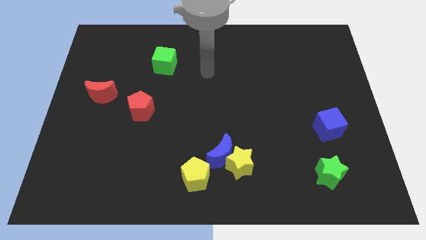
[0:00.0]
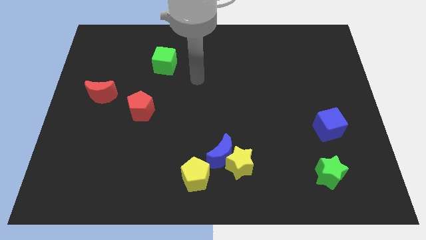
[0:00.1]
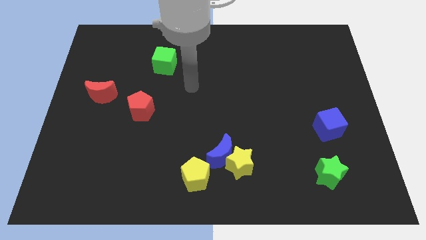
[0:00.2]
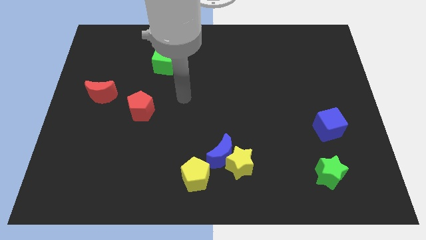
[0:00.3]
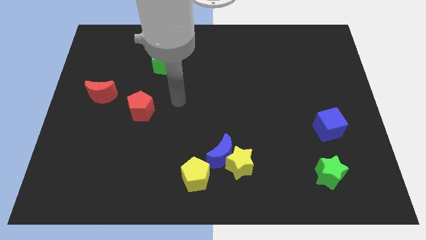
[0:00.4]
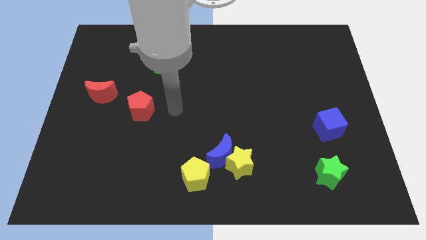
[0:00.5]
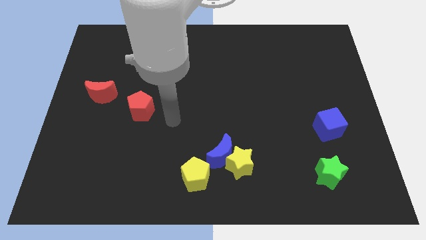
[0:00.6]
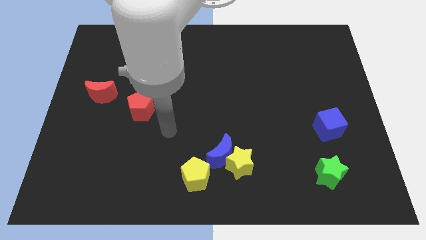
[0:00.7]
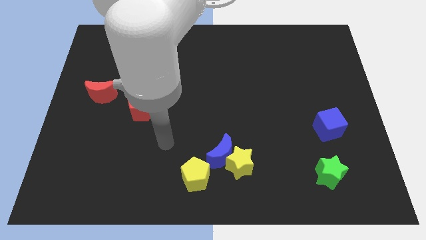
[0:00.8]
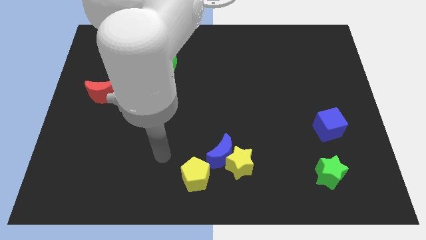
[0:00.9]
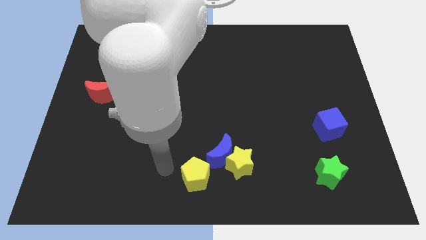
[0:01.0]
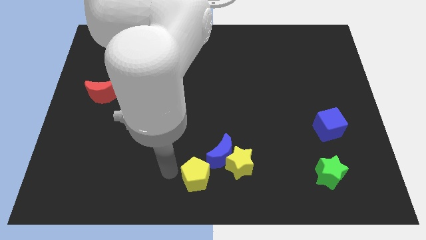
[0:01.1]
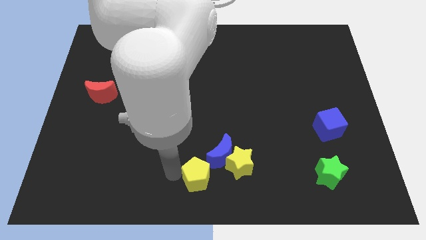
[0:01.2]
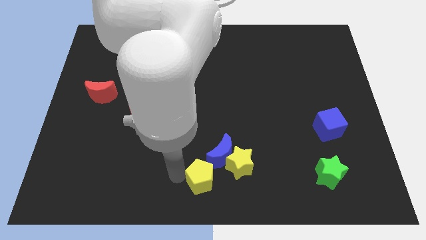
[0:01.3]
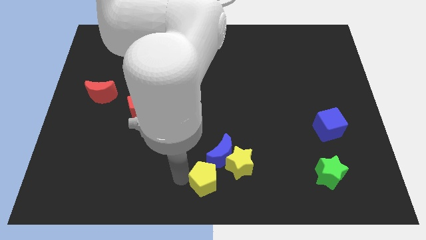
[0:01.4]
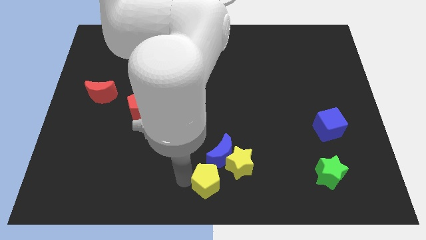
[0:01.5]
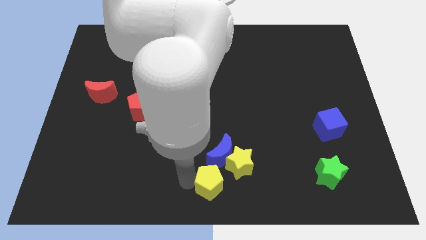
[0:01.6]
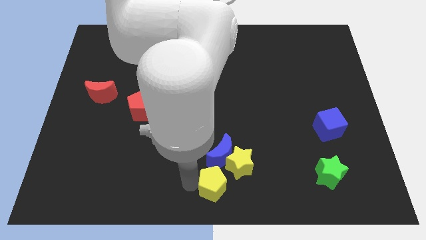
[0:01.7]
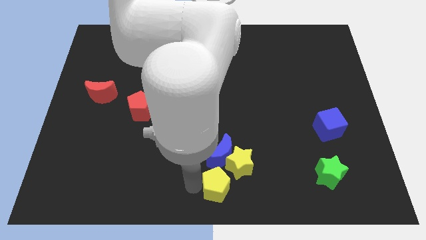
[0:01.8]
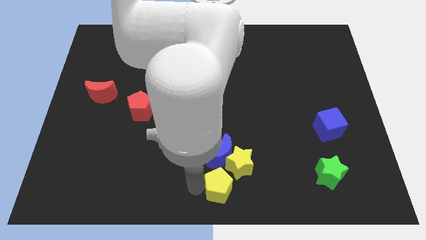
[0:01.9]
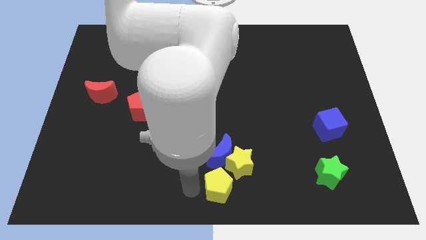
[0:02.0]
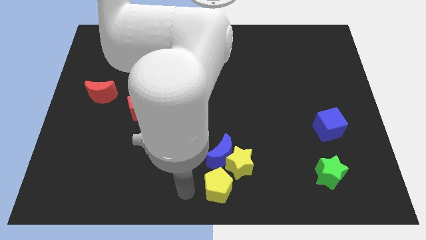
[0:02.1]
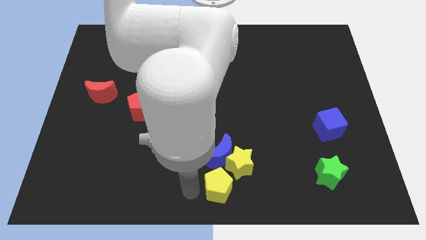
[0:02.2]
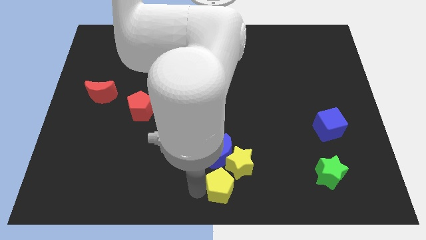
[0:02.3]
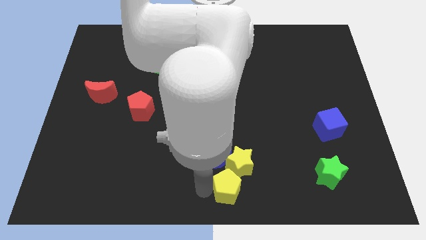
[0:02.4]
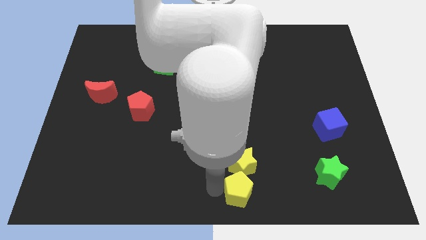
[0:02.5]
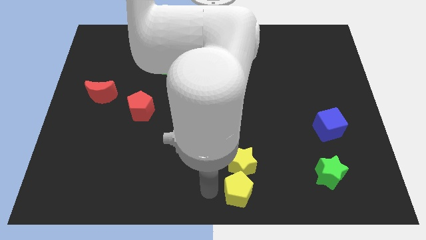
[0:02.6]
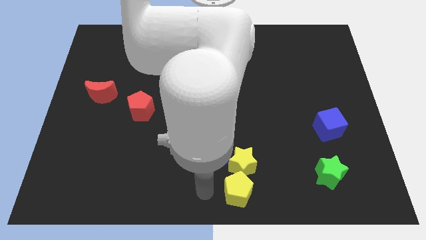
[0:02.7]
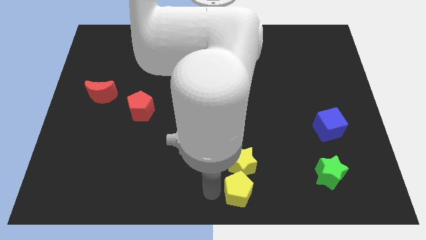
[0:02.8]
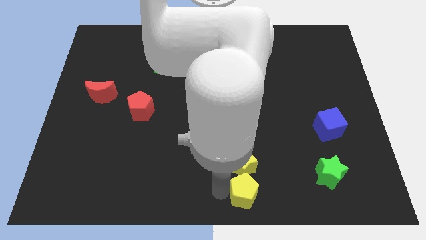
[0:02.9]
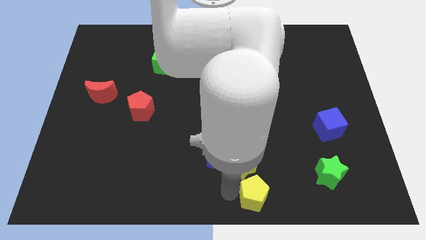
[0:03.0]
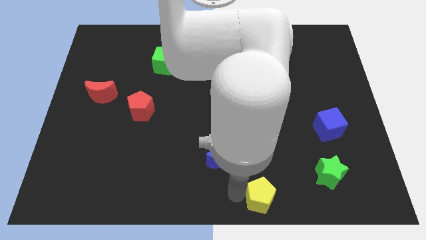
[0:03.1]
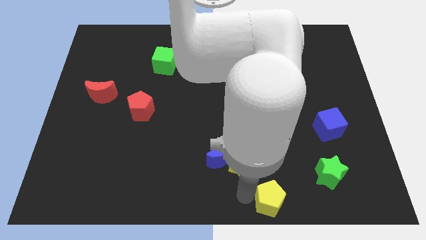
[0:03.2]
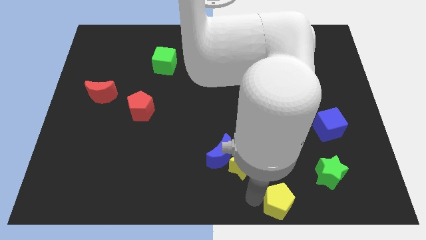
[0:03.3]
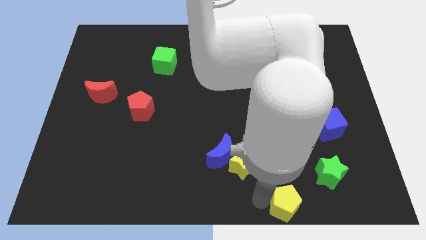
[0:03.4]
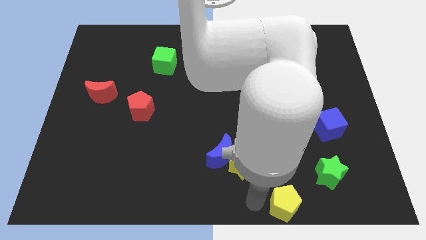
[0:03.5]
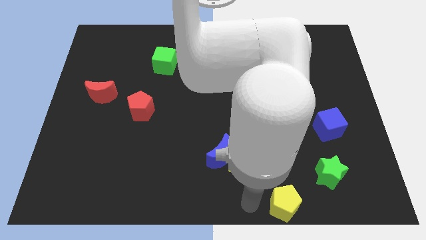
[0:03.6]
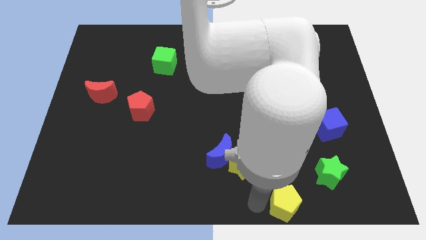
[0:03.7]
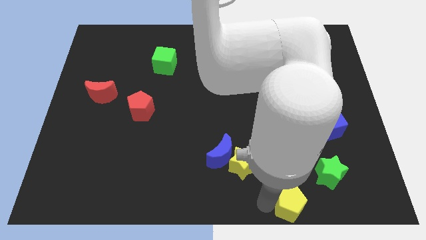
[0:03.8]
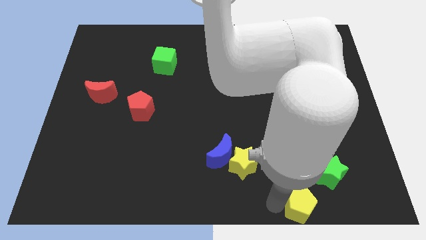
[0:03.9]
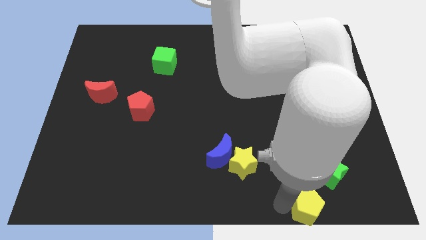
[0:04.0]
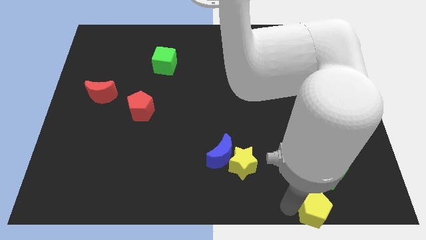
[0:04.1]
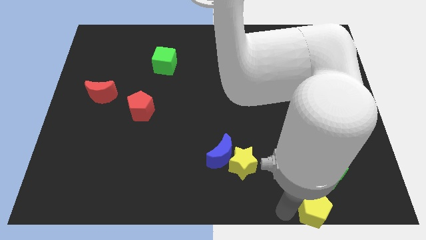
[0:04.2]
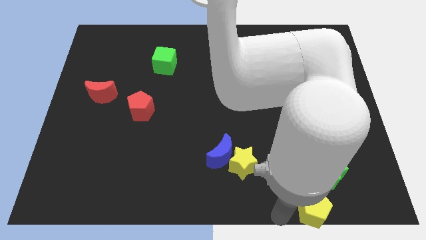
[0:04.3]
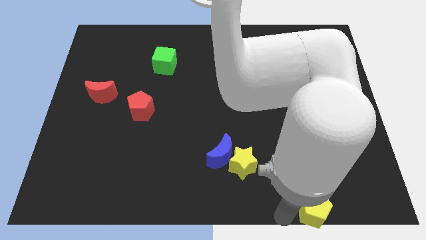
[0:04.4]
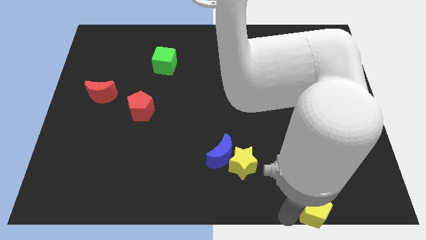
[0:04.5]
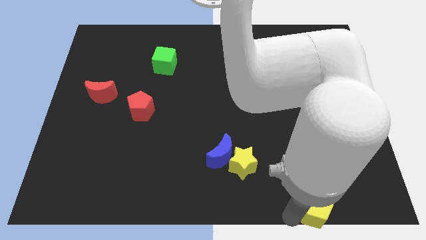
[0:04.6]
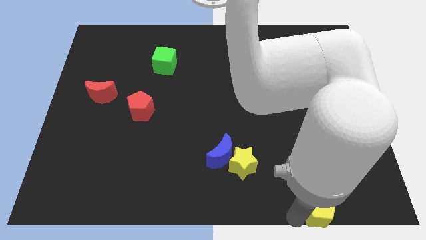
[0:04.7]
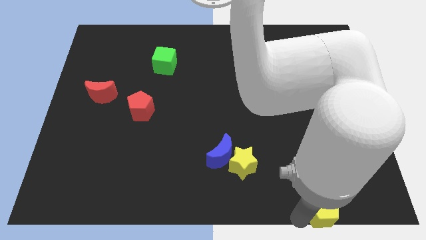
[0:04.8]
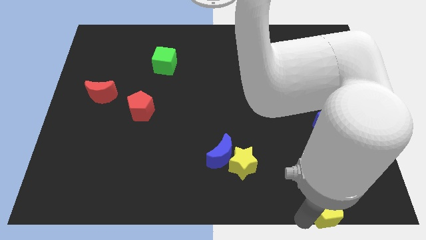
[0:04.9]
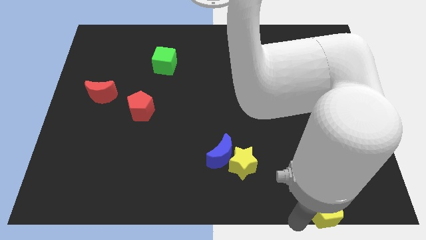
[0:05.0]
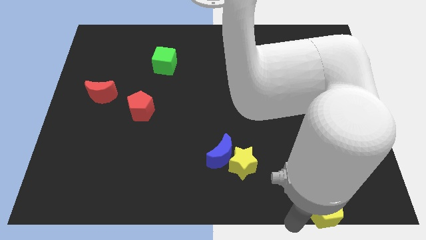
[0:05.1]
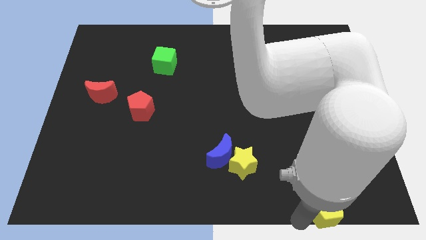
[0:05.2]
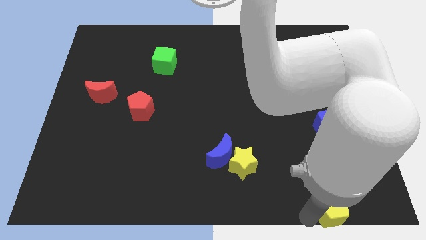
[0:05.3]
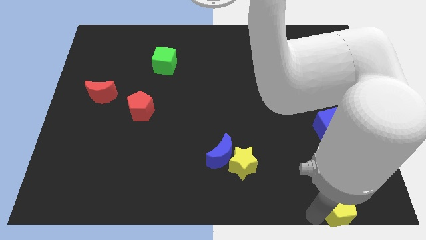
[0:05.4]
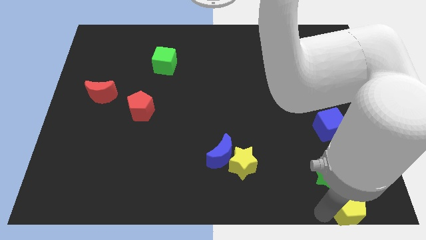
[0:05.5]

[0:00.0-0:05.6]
push the yellow pentagon to the bottom right corner
